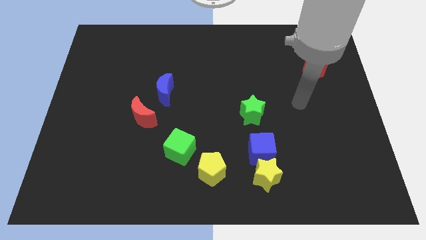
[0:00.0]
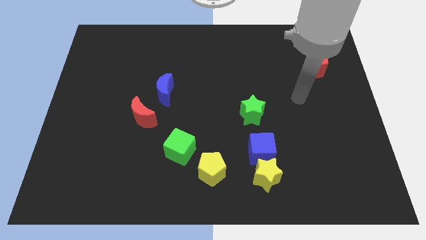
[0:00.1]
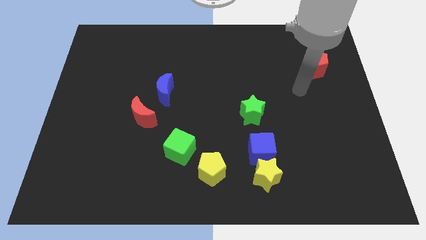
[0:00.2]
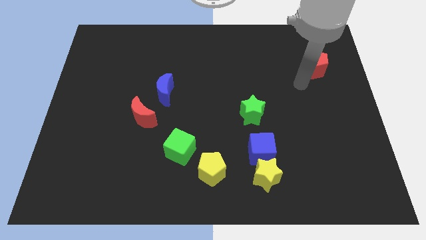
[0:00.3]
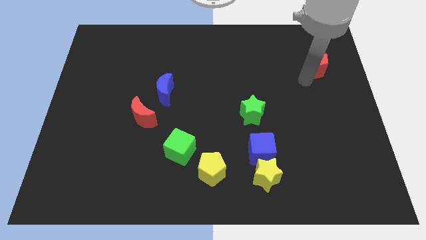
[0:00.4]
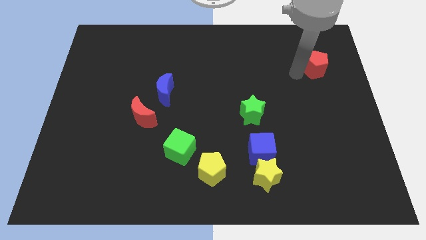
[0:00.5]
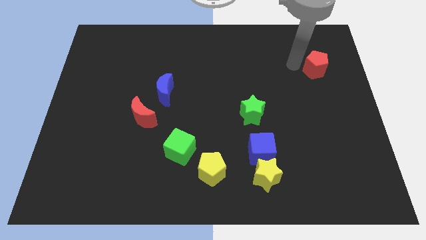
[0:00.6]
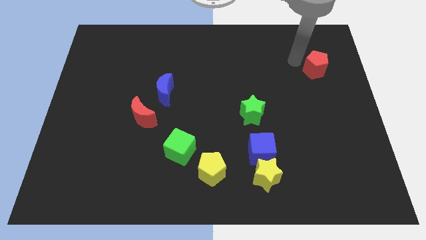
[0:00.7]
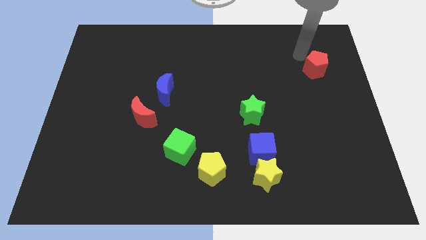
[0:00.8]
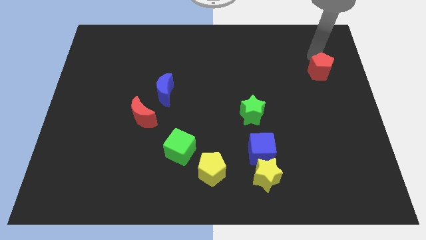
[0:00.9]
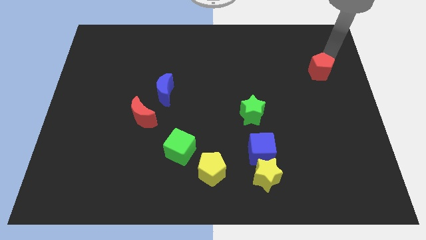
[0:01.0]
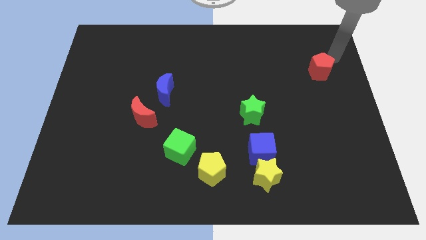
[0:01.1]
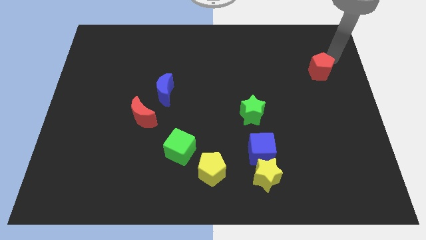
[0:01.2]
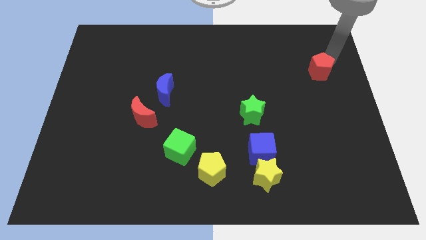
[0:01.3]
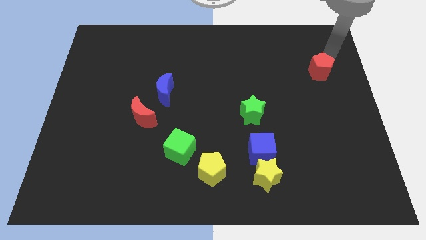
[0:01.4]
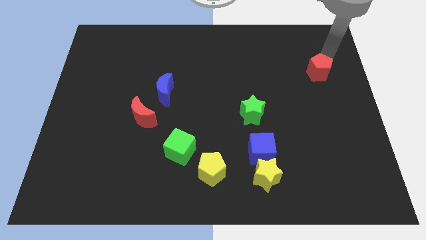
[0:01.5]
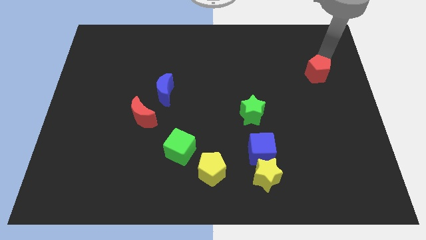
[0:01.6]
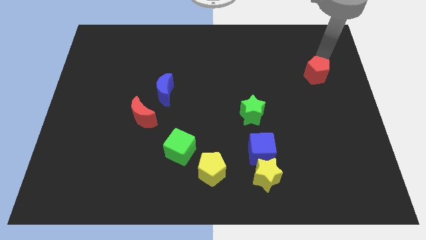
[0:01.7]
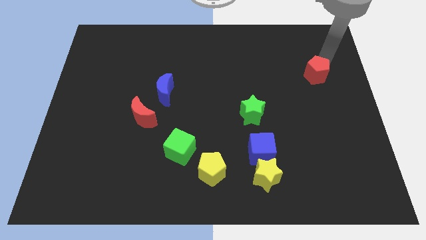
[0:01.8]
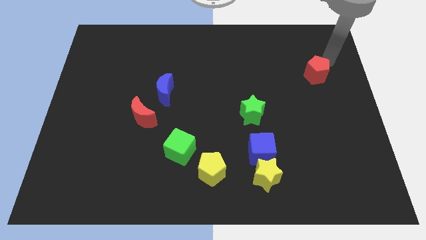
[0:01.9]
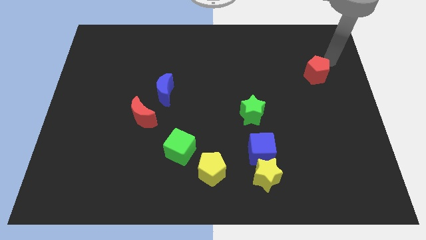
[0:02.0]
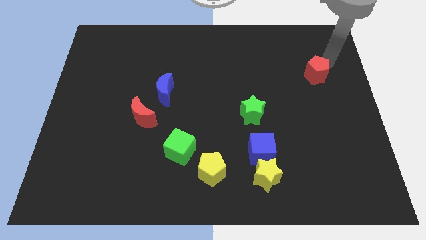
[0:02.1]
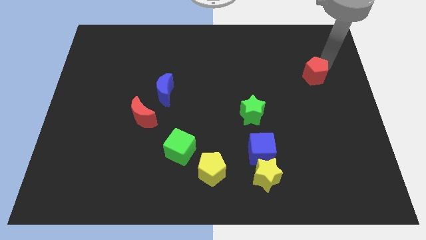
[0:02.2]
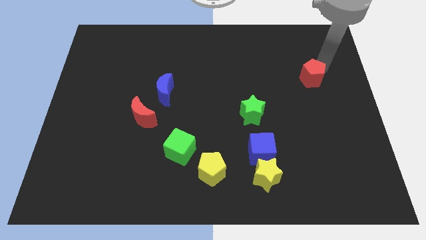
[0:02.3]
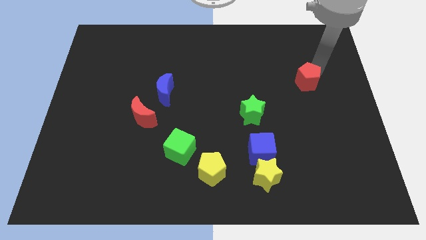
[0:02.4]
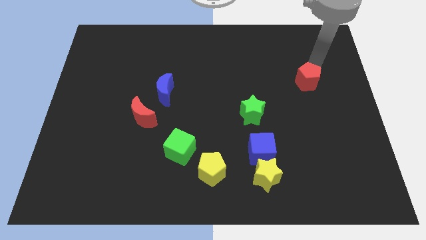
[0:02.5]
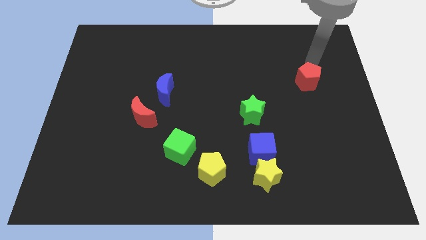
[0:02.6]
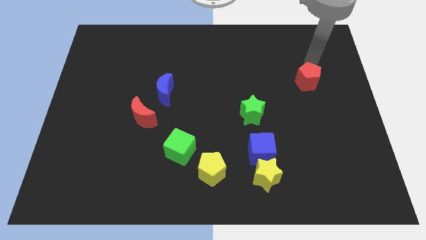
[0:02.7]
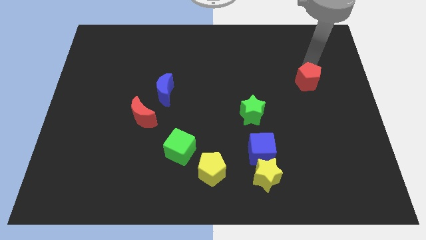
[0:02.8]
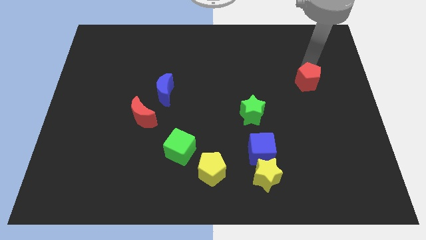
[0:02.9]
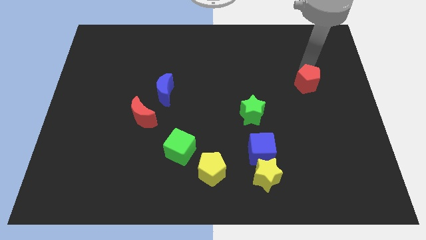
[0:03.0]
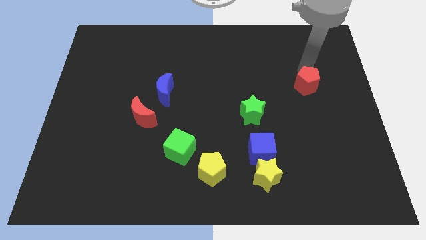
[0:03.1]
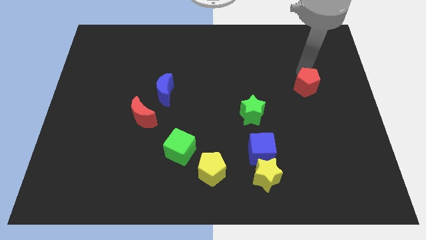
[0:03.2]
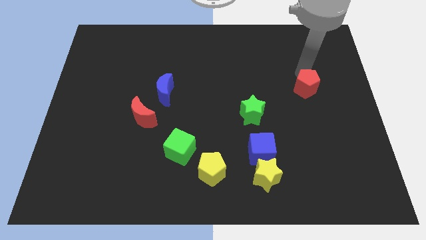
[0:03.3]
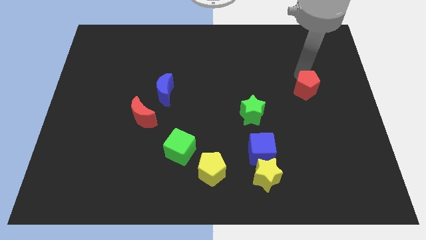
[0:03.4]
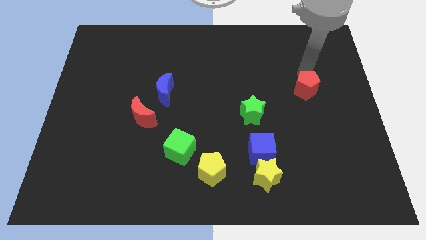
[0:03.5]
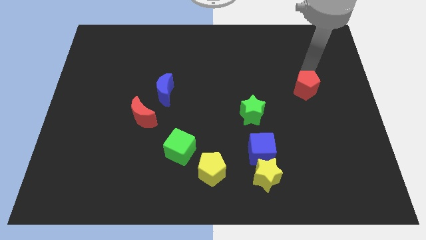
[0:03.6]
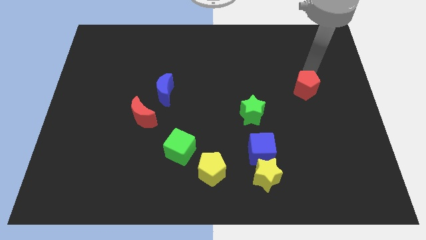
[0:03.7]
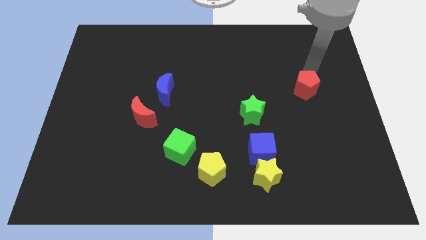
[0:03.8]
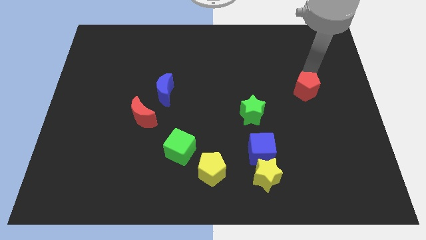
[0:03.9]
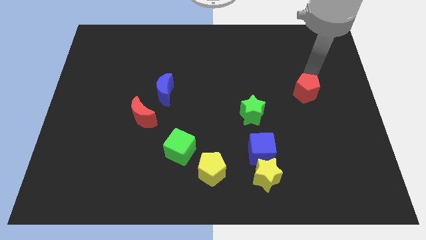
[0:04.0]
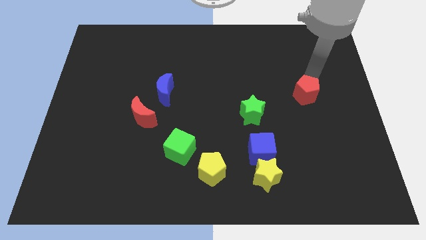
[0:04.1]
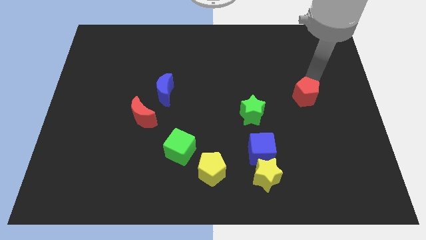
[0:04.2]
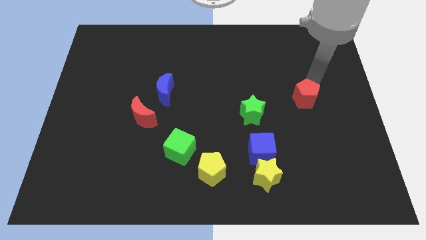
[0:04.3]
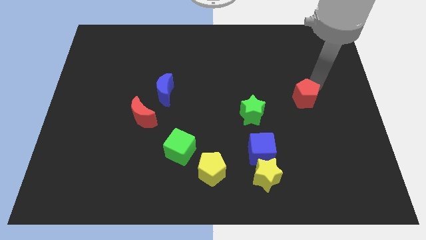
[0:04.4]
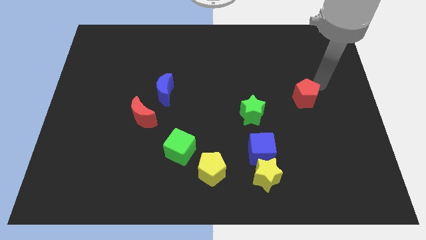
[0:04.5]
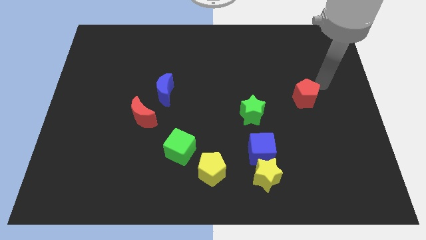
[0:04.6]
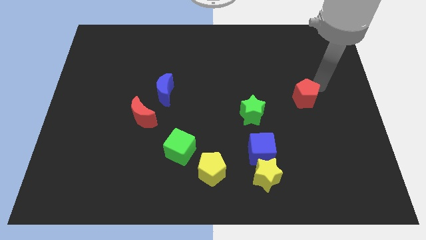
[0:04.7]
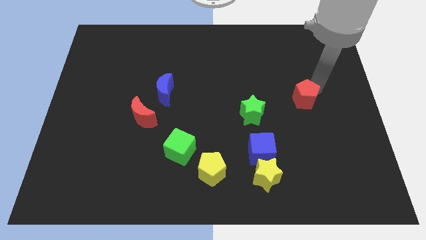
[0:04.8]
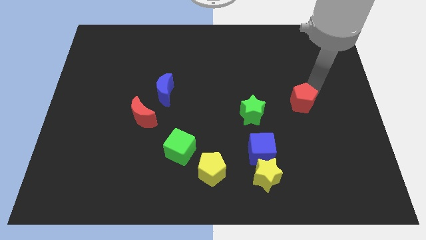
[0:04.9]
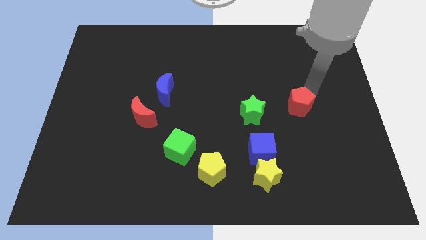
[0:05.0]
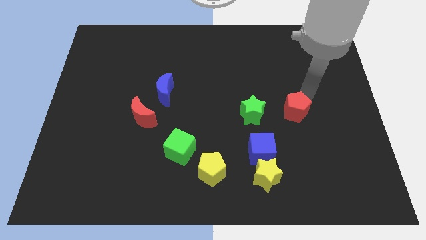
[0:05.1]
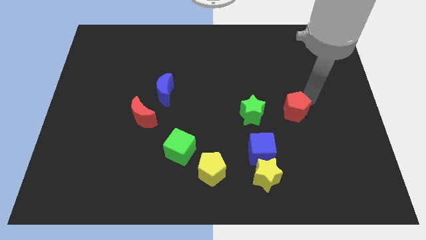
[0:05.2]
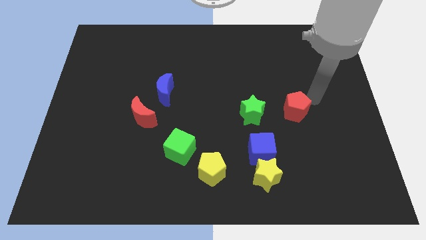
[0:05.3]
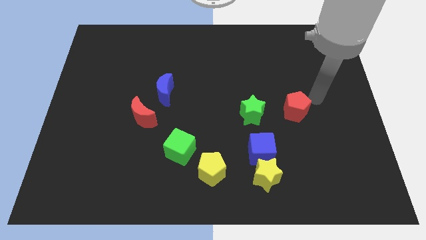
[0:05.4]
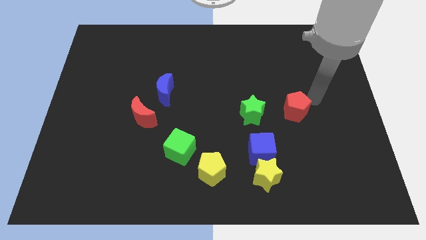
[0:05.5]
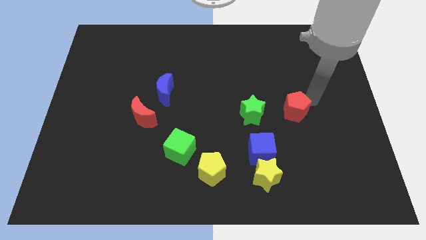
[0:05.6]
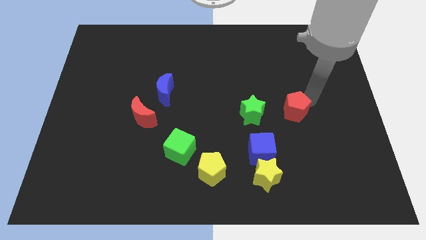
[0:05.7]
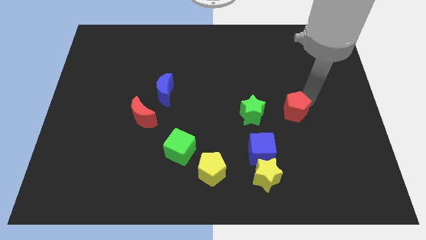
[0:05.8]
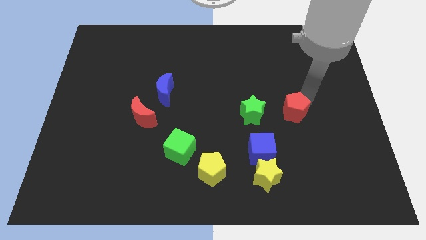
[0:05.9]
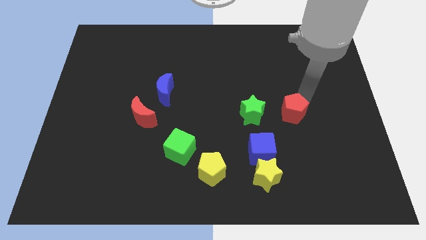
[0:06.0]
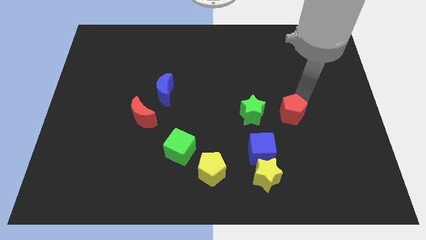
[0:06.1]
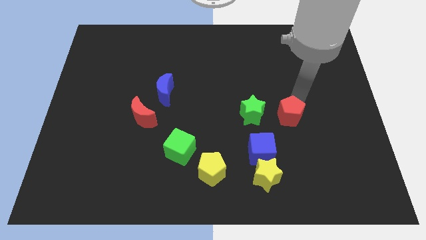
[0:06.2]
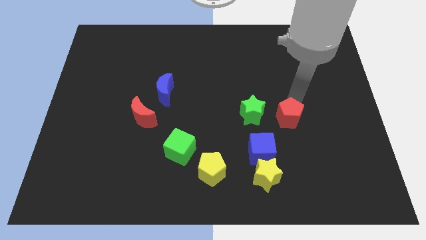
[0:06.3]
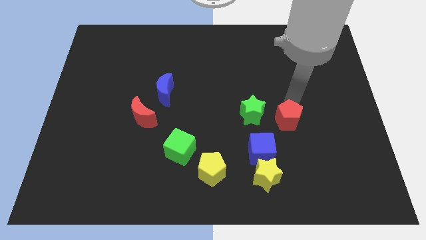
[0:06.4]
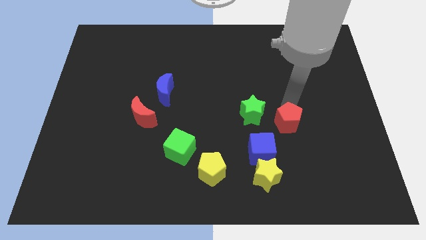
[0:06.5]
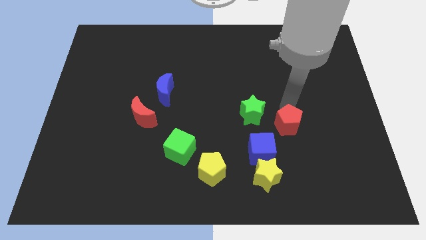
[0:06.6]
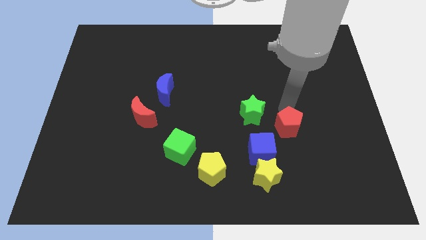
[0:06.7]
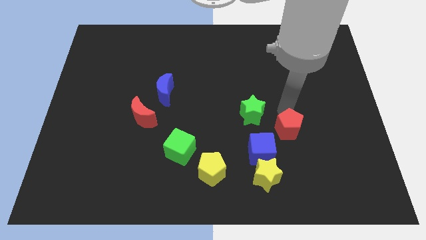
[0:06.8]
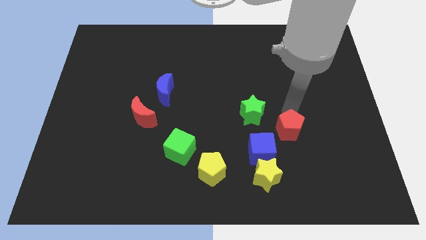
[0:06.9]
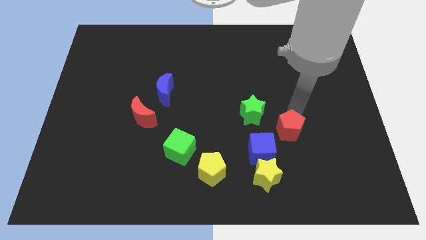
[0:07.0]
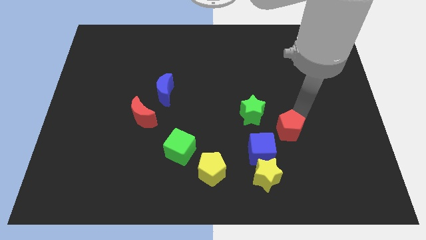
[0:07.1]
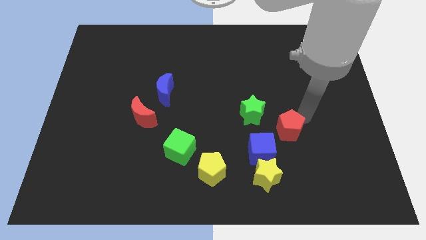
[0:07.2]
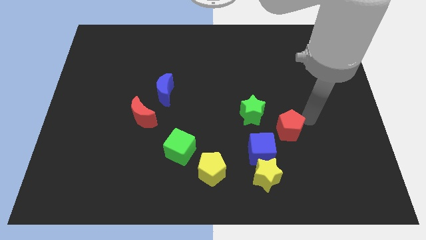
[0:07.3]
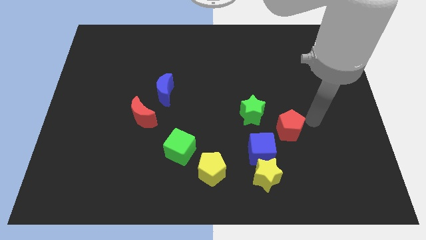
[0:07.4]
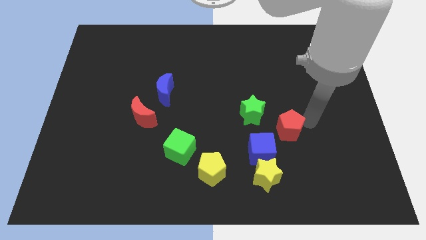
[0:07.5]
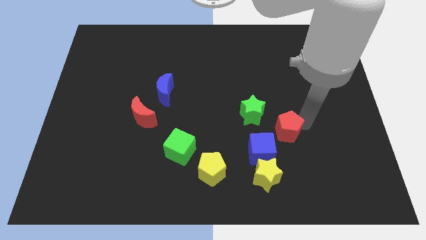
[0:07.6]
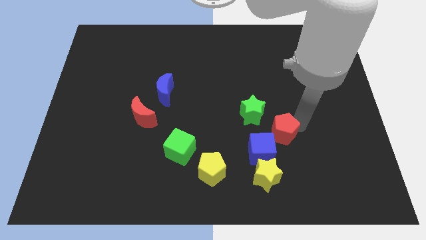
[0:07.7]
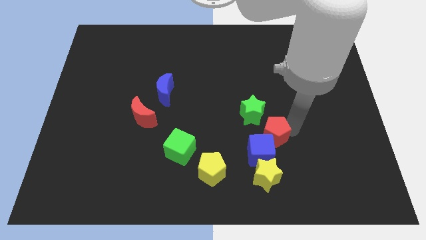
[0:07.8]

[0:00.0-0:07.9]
push the red pentagon down and left

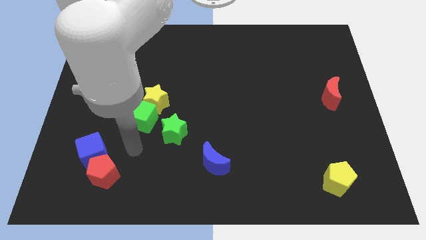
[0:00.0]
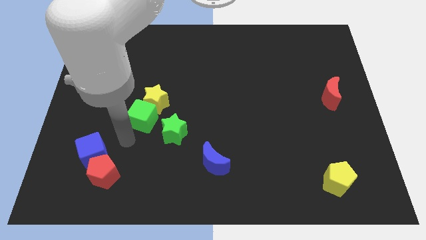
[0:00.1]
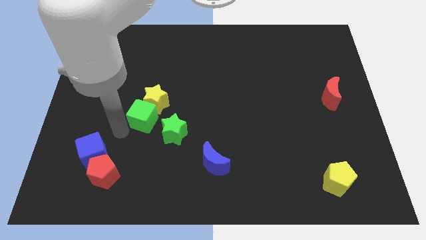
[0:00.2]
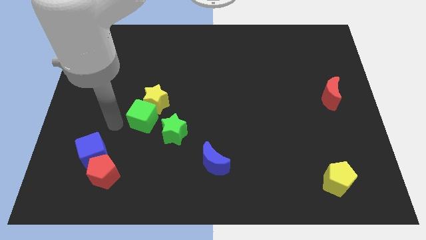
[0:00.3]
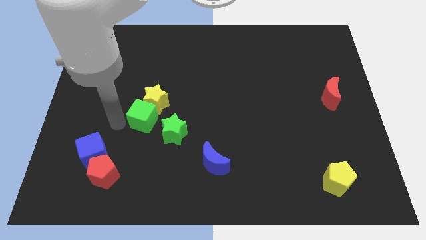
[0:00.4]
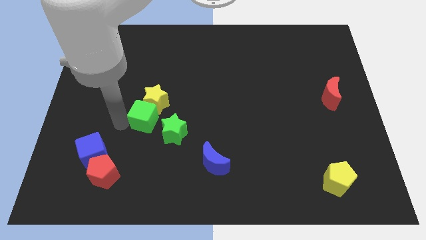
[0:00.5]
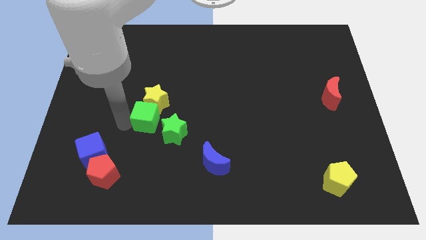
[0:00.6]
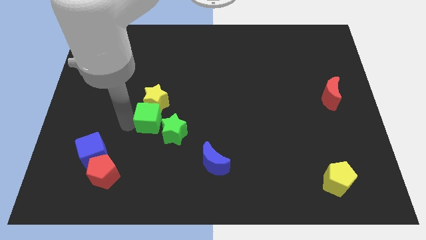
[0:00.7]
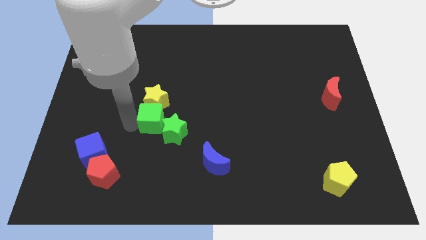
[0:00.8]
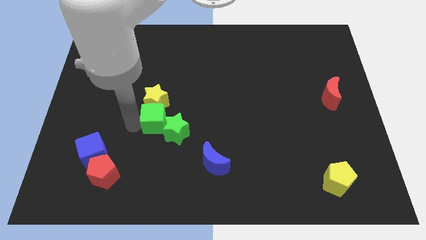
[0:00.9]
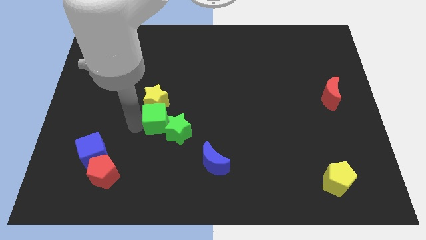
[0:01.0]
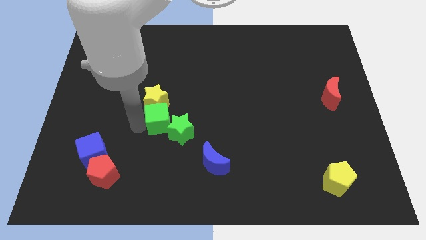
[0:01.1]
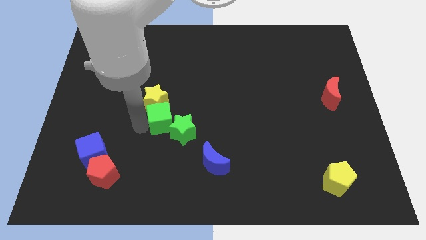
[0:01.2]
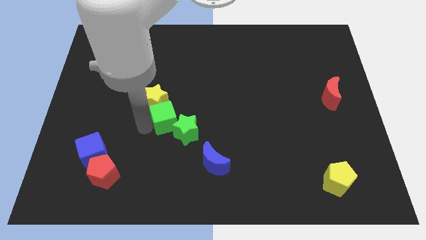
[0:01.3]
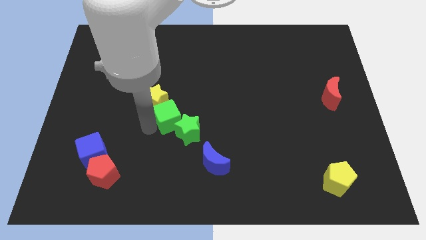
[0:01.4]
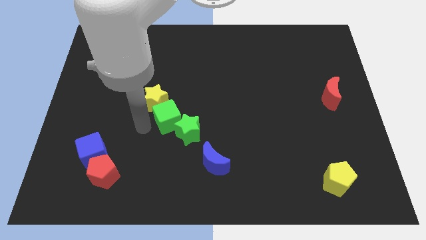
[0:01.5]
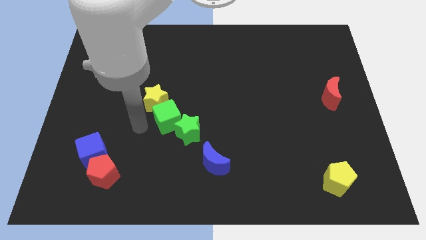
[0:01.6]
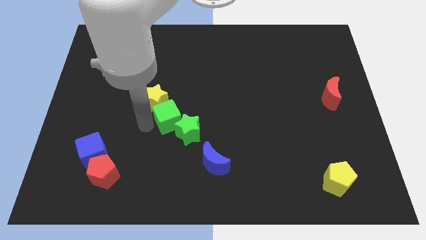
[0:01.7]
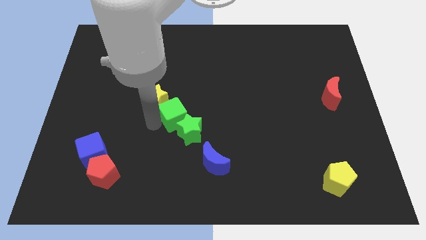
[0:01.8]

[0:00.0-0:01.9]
move the green cube a bit right
